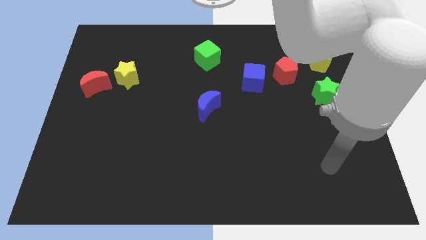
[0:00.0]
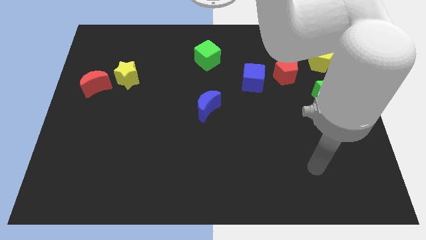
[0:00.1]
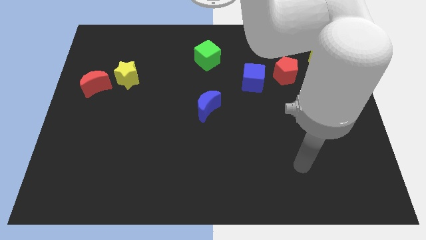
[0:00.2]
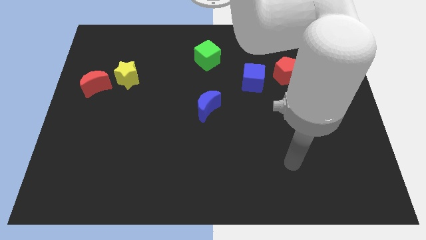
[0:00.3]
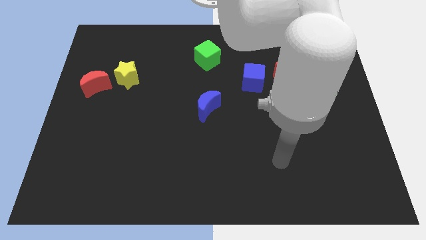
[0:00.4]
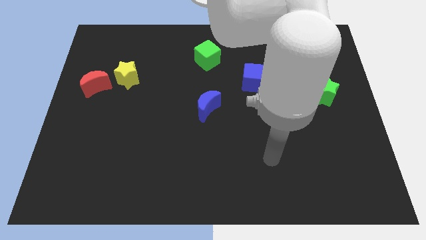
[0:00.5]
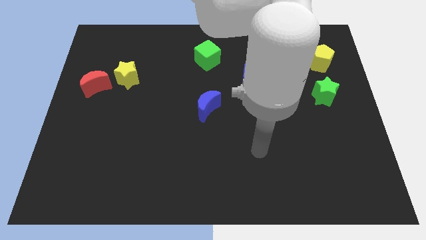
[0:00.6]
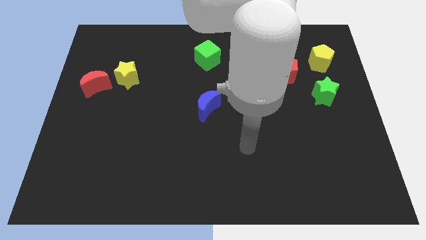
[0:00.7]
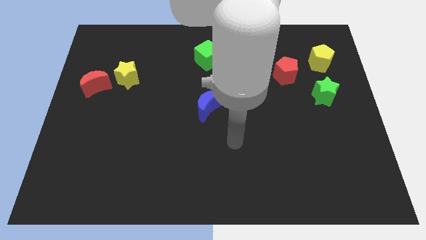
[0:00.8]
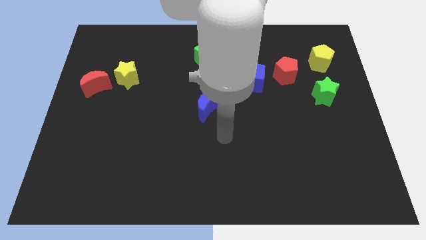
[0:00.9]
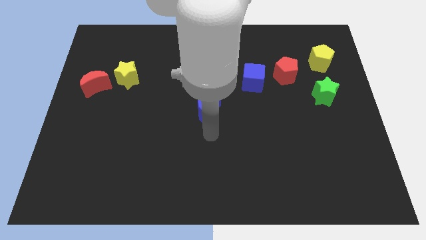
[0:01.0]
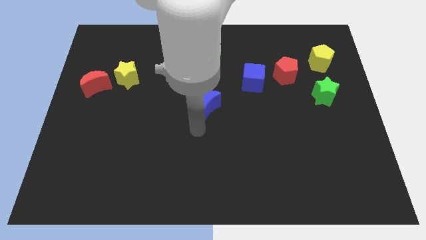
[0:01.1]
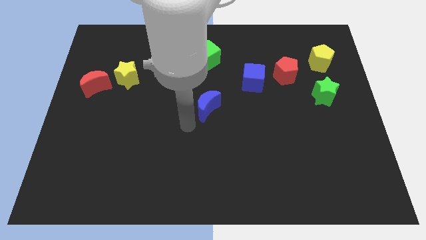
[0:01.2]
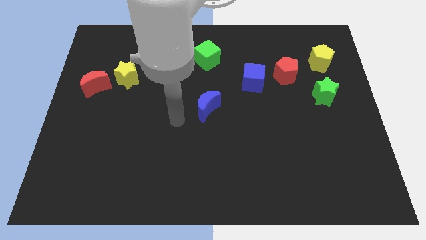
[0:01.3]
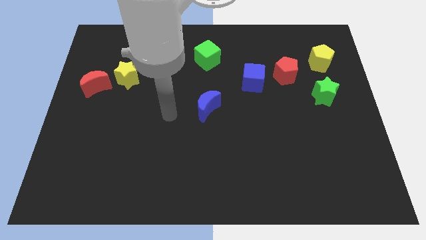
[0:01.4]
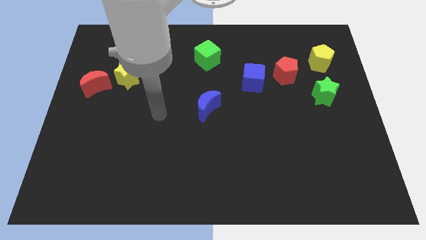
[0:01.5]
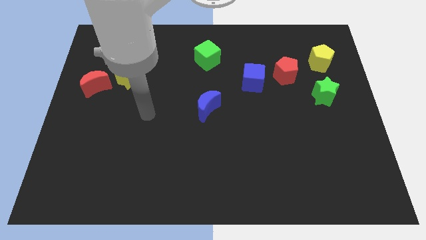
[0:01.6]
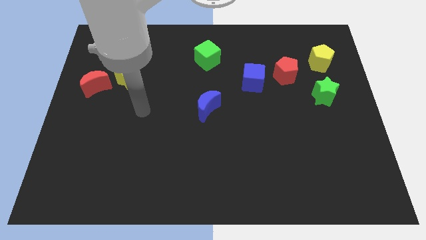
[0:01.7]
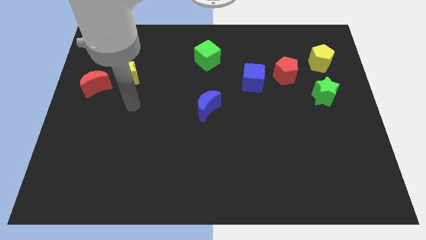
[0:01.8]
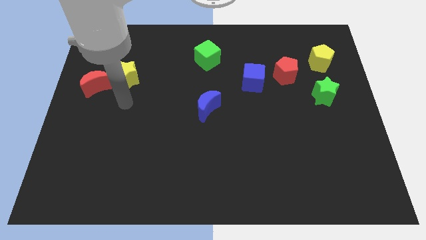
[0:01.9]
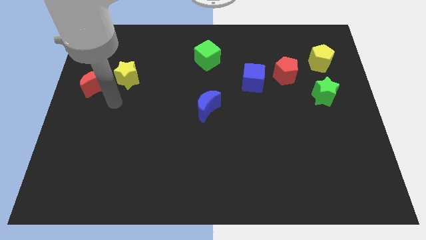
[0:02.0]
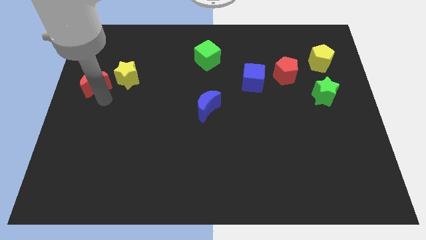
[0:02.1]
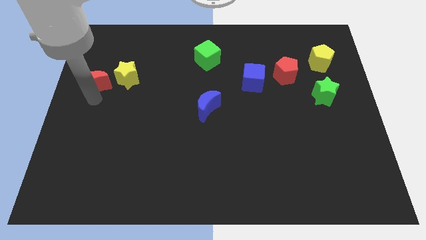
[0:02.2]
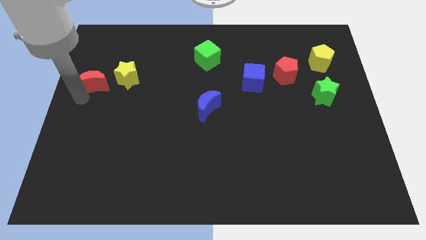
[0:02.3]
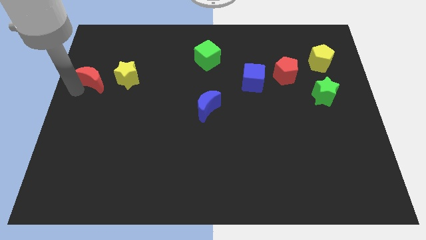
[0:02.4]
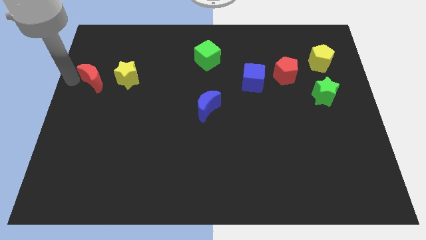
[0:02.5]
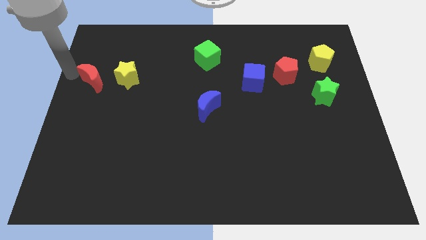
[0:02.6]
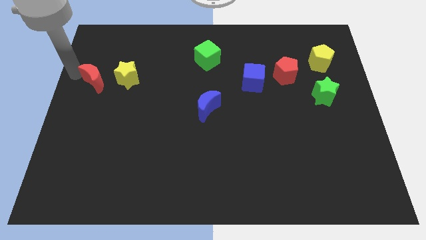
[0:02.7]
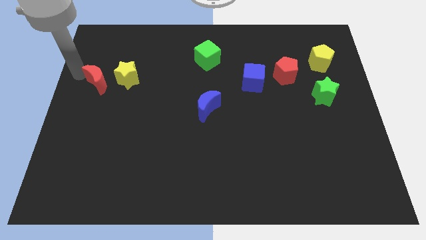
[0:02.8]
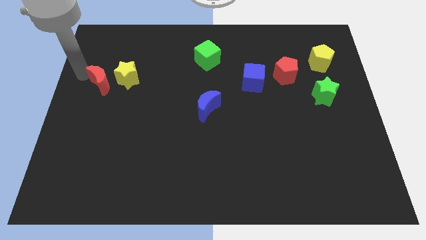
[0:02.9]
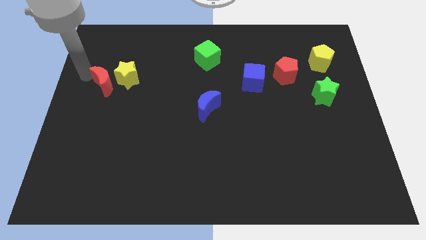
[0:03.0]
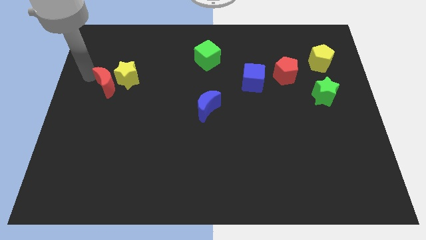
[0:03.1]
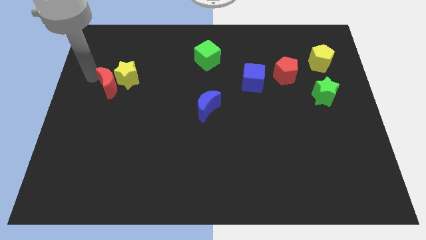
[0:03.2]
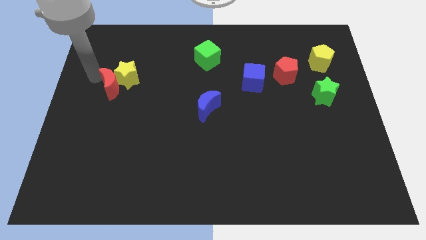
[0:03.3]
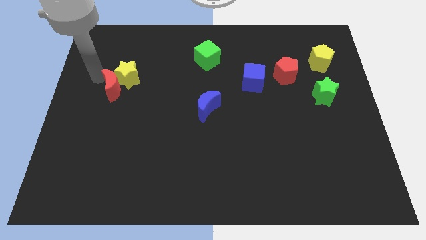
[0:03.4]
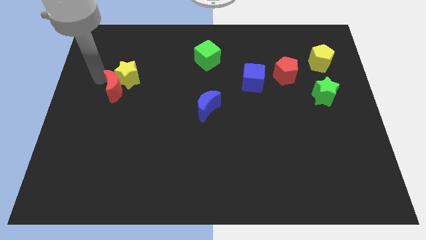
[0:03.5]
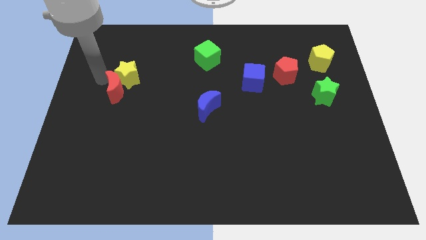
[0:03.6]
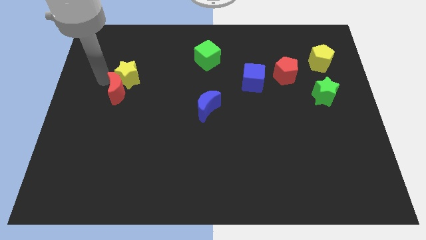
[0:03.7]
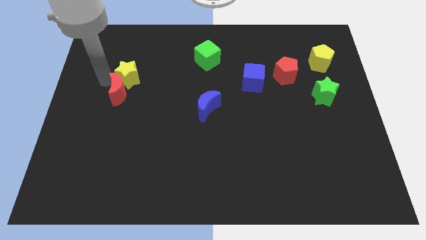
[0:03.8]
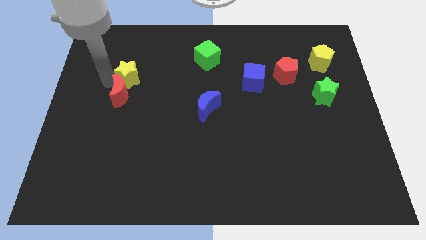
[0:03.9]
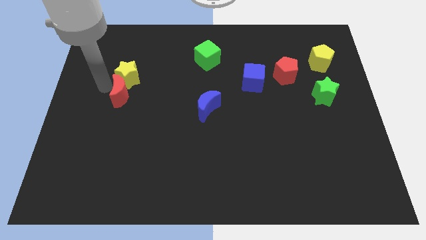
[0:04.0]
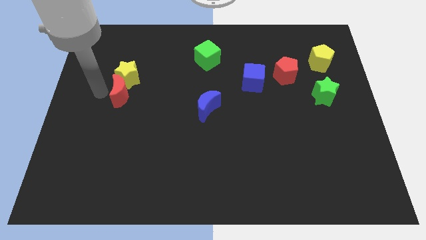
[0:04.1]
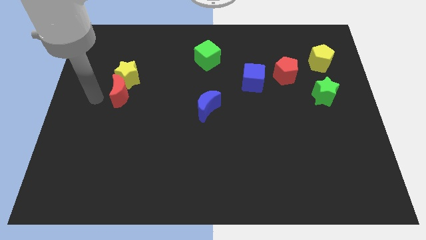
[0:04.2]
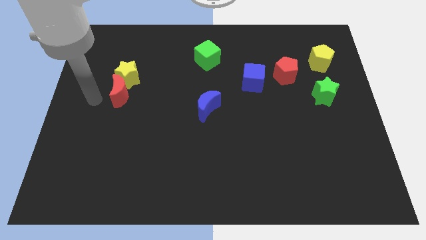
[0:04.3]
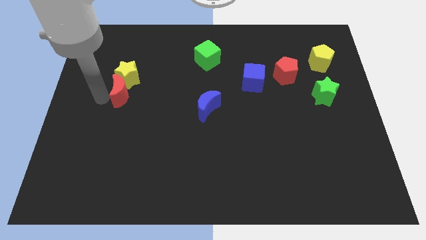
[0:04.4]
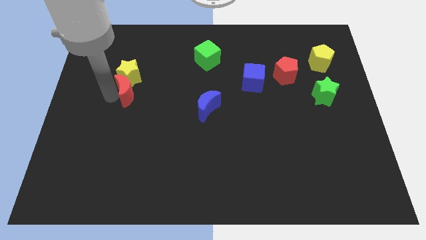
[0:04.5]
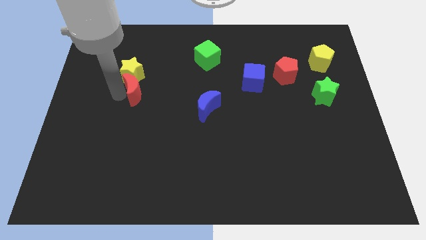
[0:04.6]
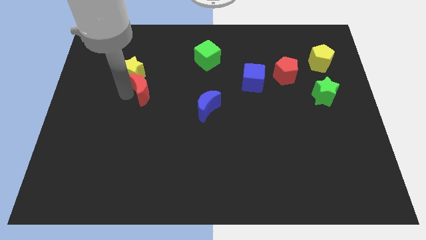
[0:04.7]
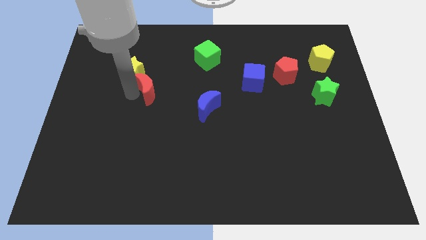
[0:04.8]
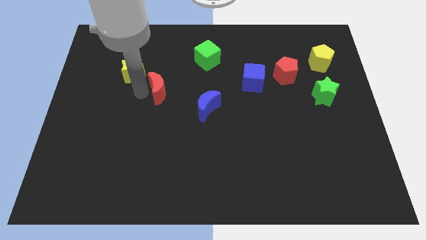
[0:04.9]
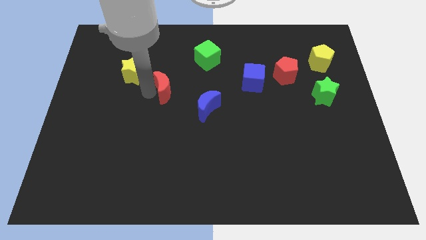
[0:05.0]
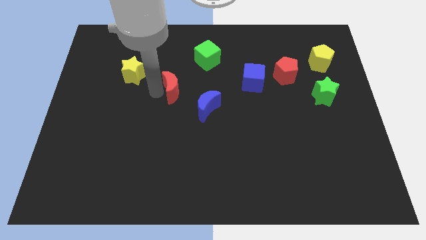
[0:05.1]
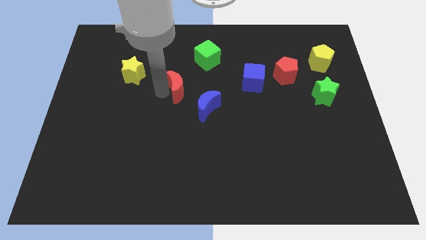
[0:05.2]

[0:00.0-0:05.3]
push the red moon to the right

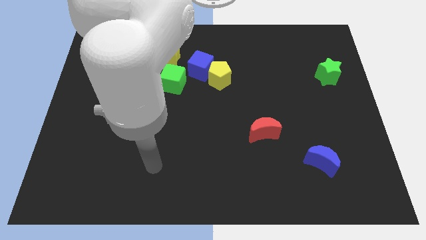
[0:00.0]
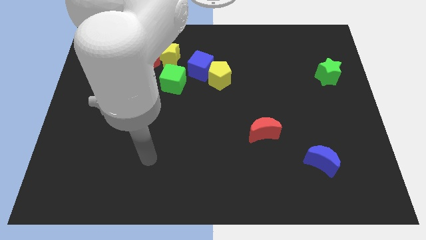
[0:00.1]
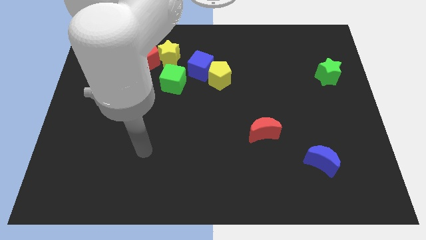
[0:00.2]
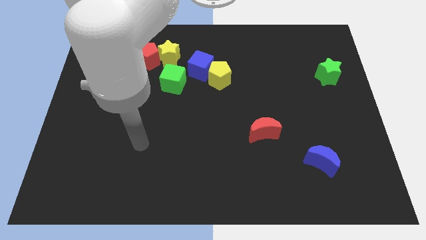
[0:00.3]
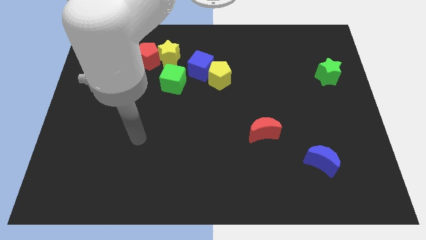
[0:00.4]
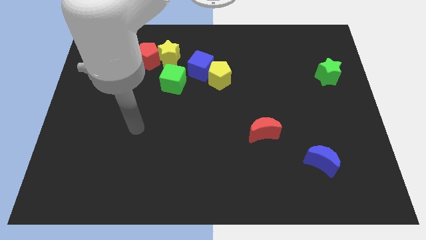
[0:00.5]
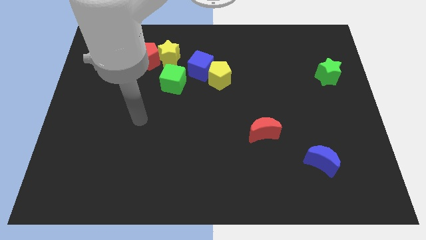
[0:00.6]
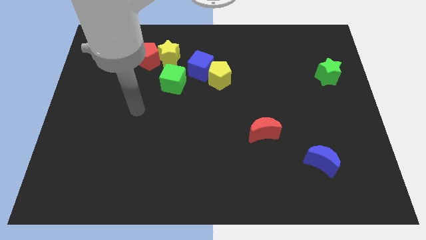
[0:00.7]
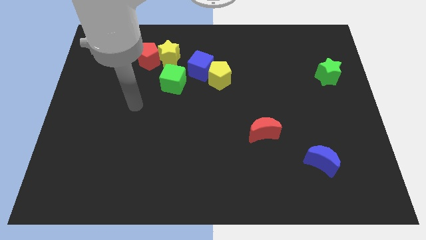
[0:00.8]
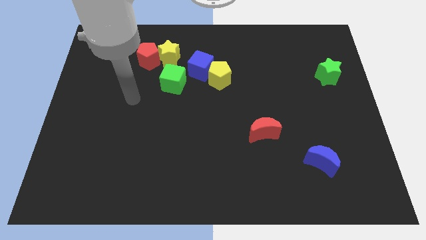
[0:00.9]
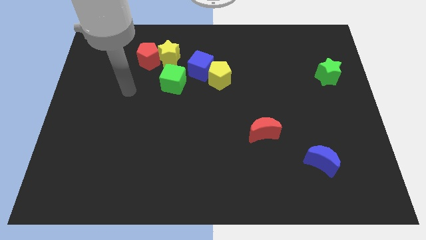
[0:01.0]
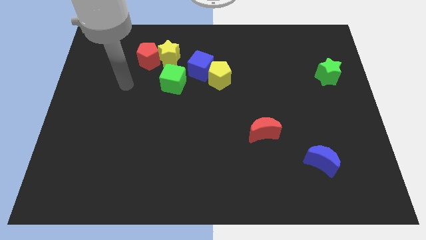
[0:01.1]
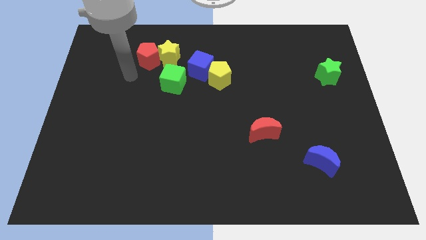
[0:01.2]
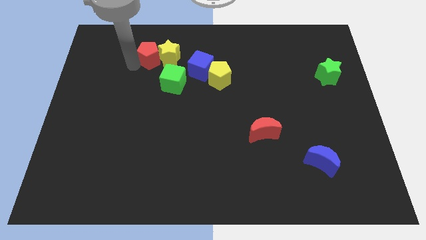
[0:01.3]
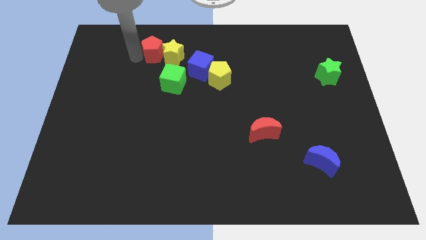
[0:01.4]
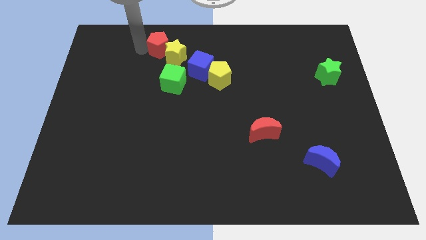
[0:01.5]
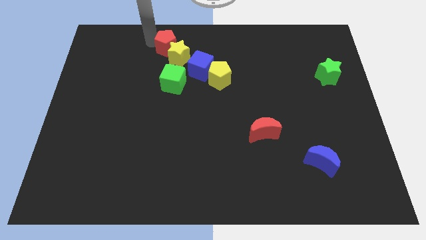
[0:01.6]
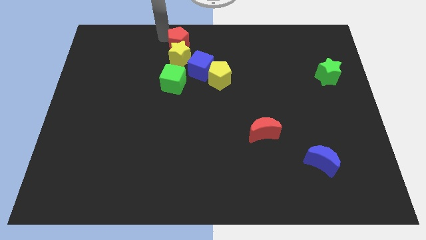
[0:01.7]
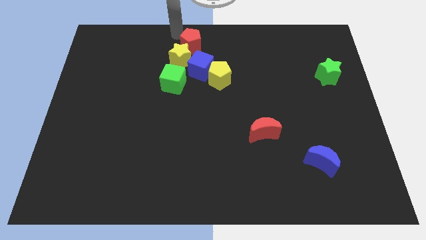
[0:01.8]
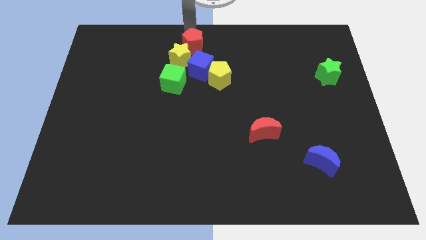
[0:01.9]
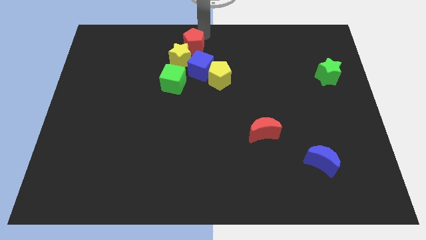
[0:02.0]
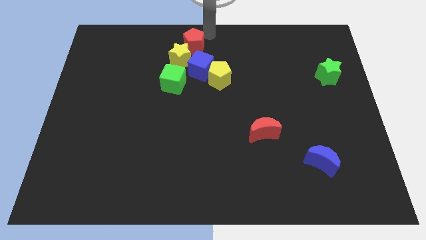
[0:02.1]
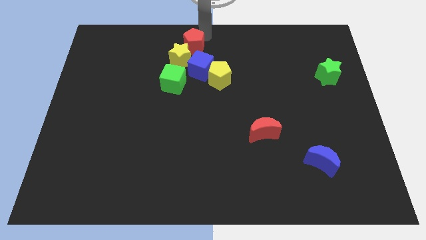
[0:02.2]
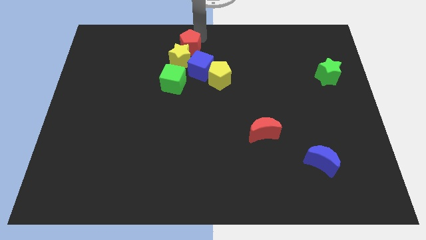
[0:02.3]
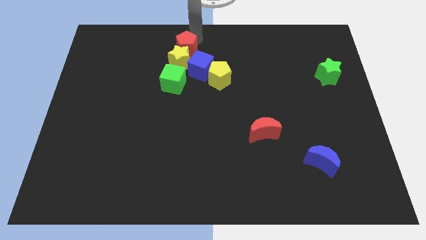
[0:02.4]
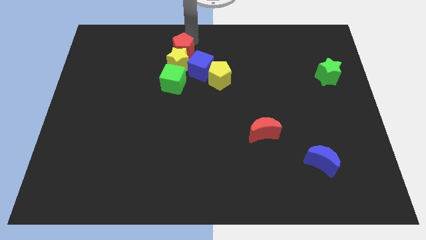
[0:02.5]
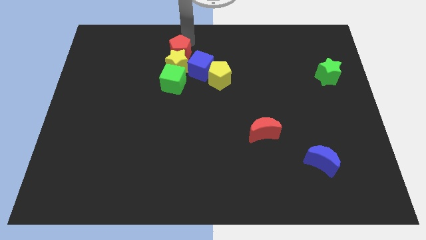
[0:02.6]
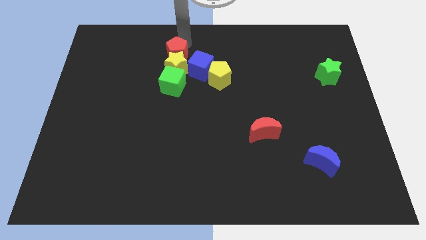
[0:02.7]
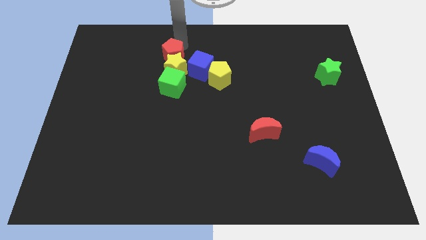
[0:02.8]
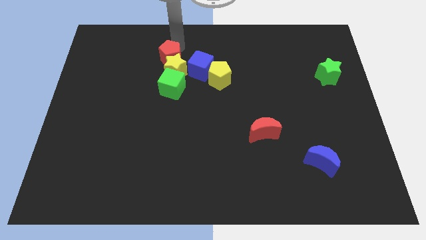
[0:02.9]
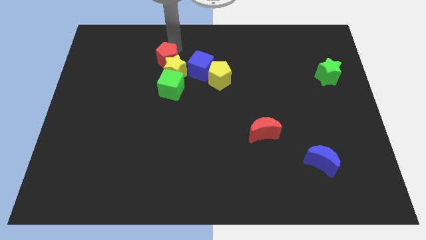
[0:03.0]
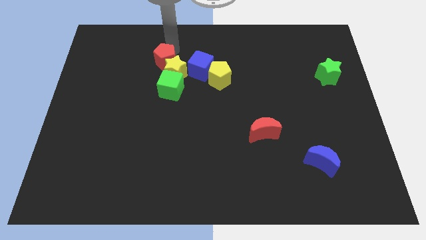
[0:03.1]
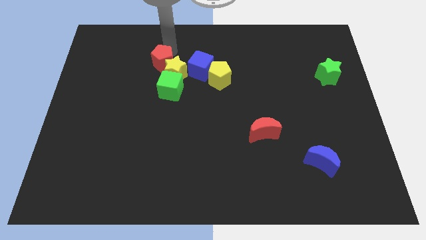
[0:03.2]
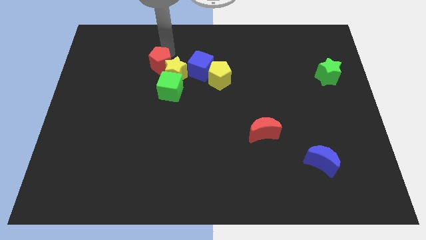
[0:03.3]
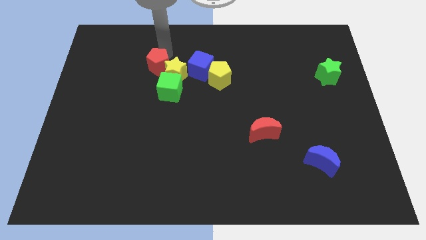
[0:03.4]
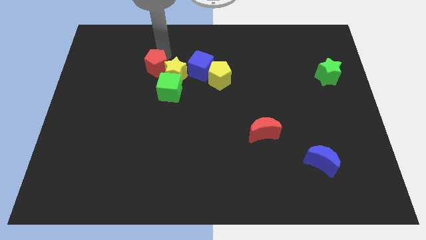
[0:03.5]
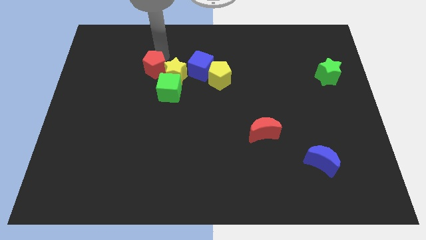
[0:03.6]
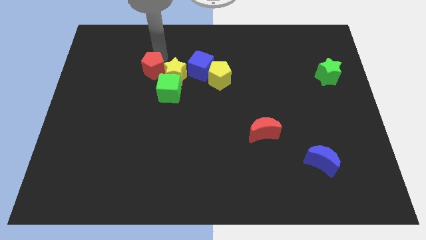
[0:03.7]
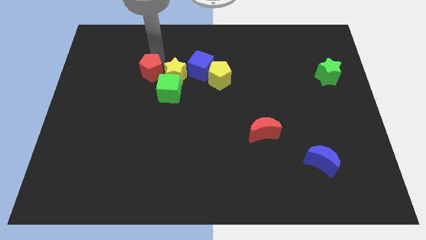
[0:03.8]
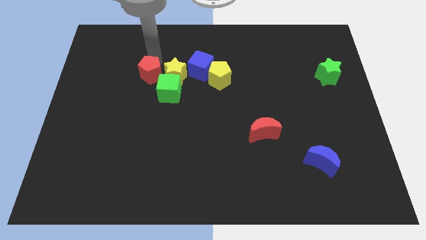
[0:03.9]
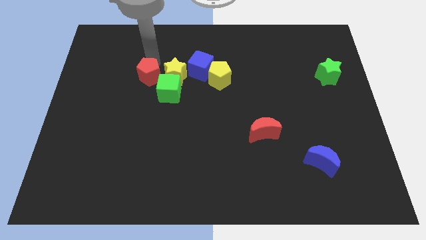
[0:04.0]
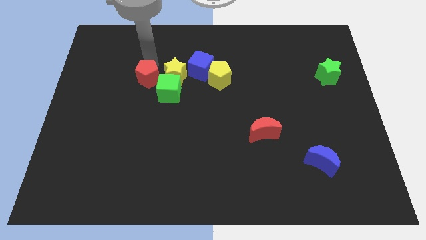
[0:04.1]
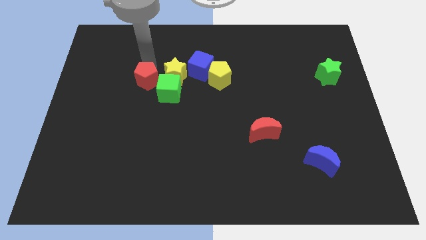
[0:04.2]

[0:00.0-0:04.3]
move the red pentagon somewhat down
